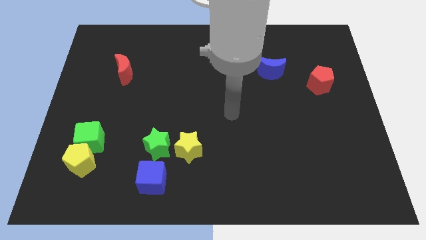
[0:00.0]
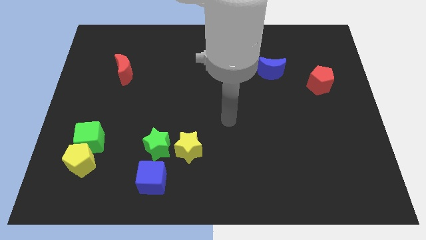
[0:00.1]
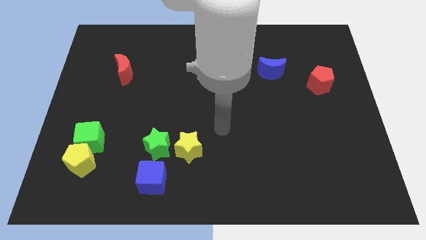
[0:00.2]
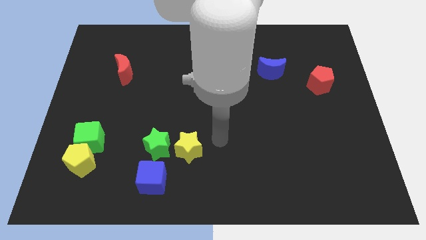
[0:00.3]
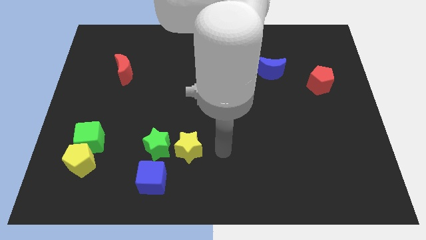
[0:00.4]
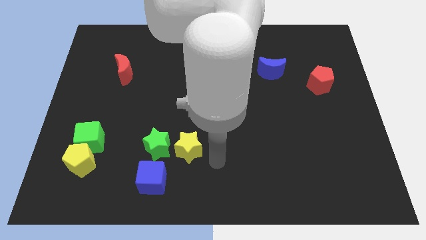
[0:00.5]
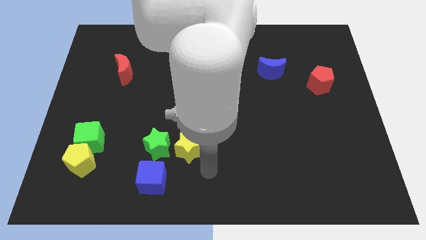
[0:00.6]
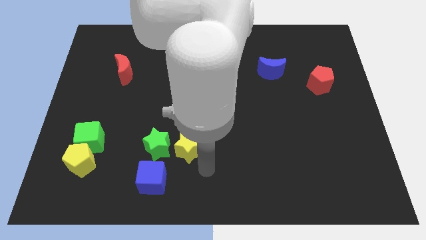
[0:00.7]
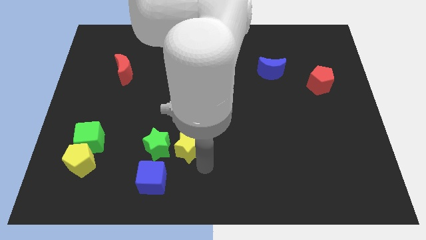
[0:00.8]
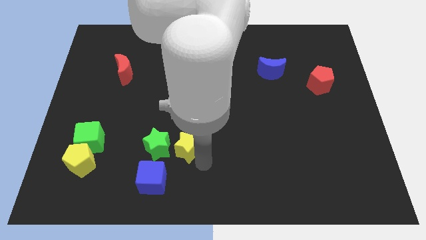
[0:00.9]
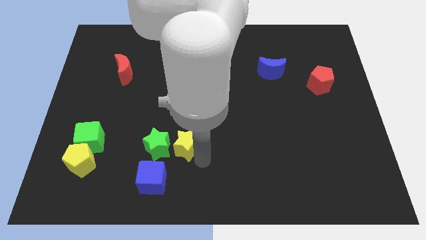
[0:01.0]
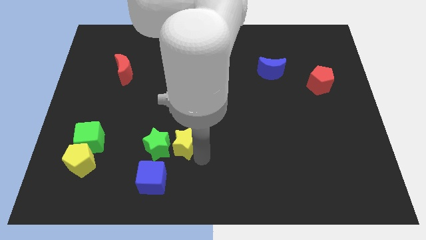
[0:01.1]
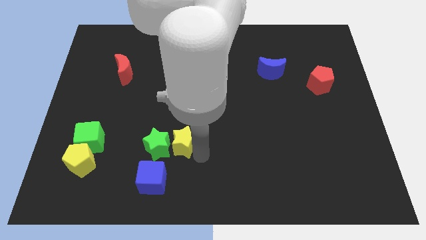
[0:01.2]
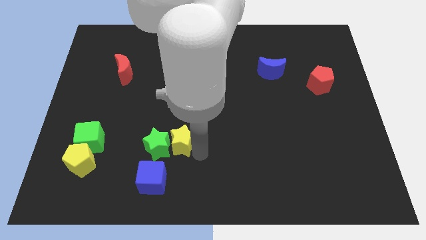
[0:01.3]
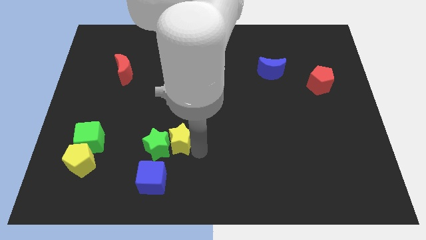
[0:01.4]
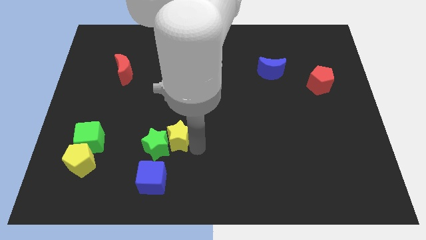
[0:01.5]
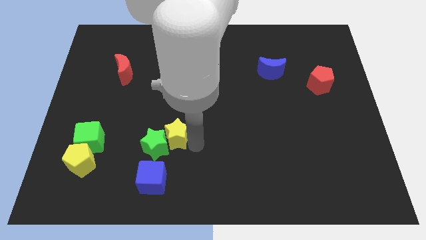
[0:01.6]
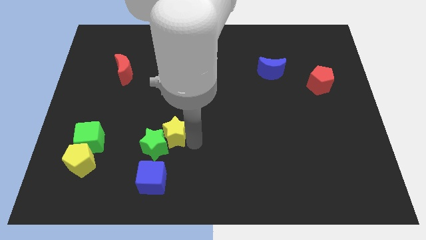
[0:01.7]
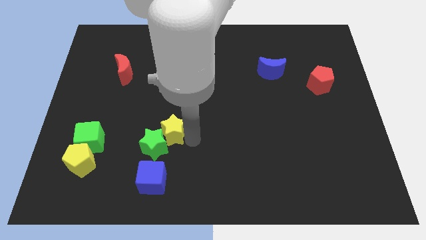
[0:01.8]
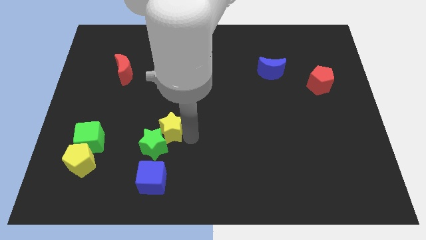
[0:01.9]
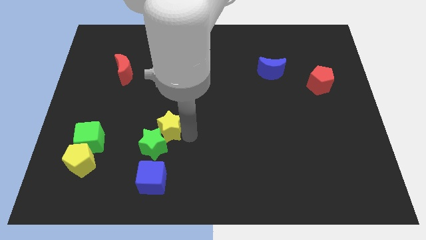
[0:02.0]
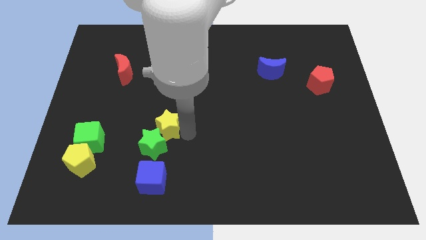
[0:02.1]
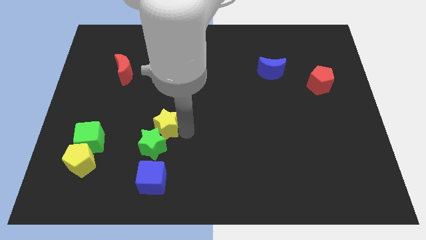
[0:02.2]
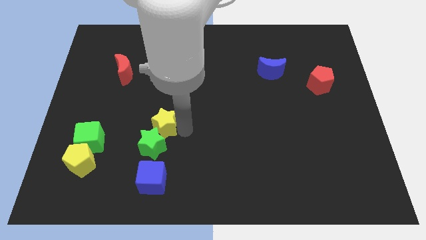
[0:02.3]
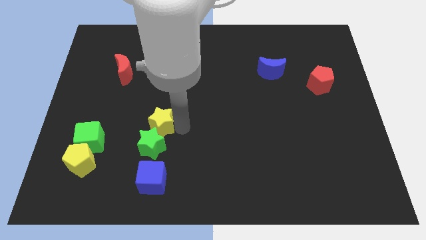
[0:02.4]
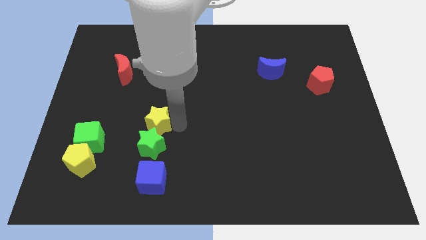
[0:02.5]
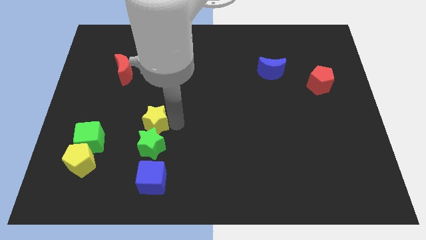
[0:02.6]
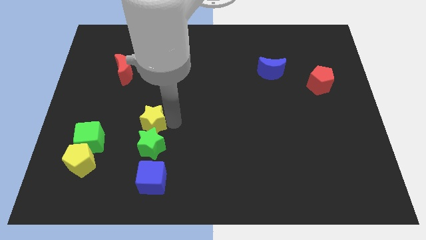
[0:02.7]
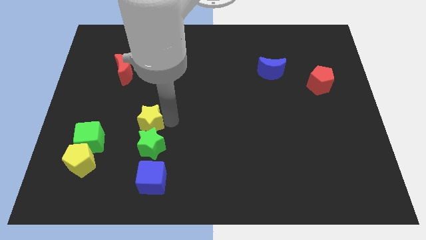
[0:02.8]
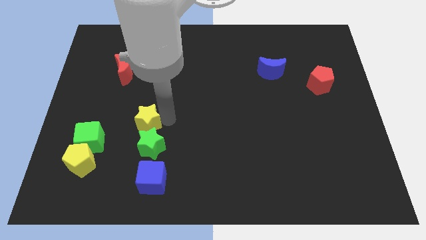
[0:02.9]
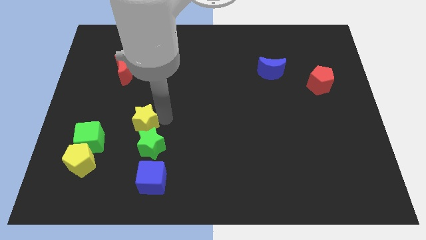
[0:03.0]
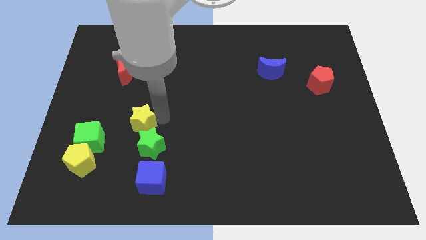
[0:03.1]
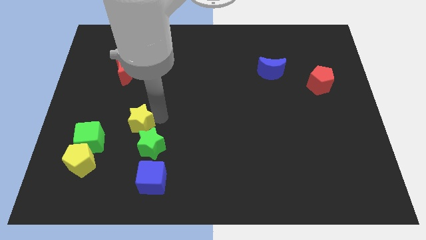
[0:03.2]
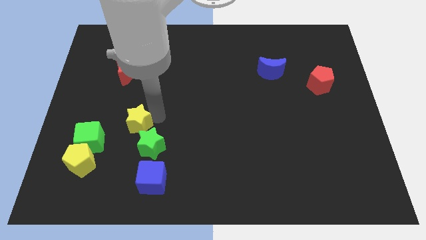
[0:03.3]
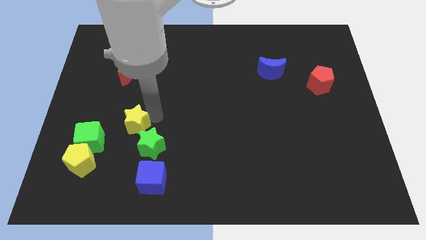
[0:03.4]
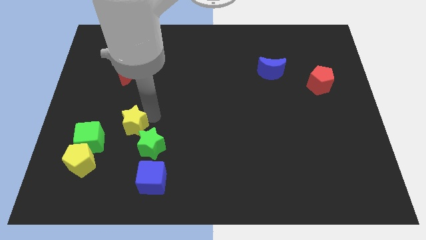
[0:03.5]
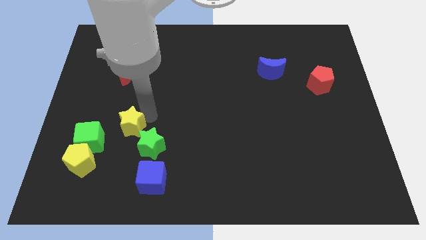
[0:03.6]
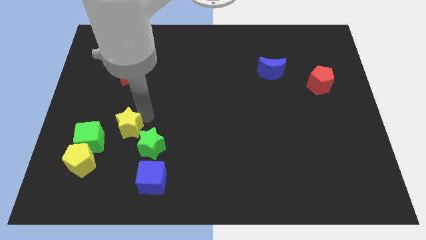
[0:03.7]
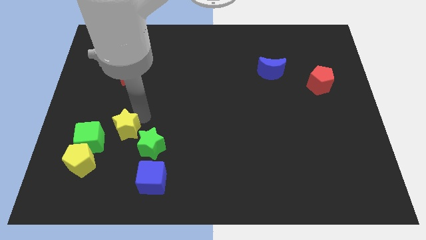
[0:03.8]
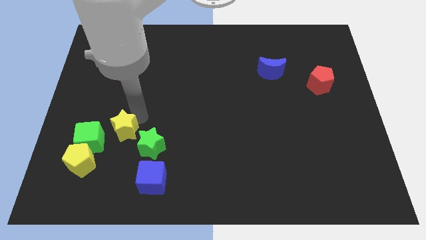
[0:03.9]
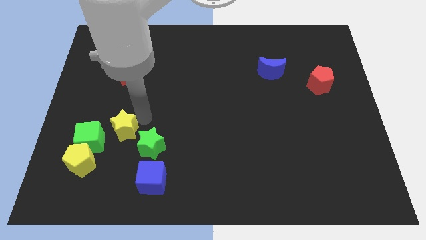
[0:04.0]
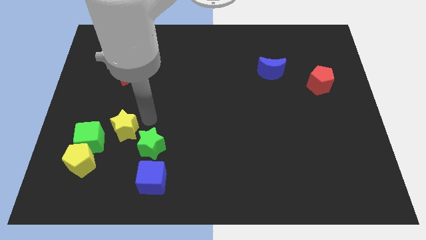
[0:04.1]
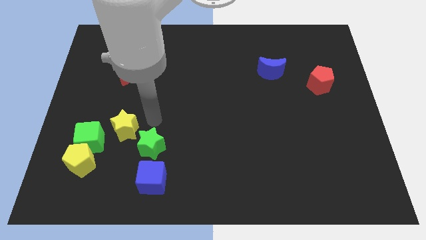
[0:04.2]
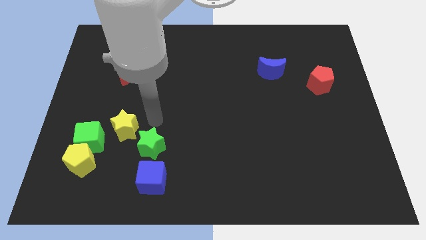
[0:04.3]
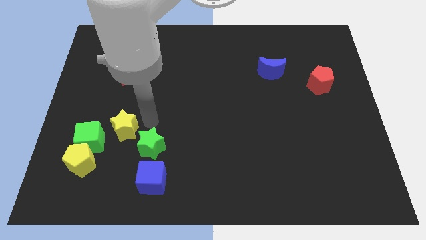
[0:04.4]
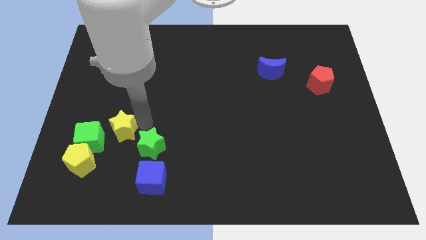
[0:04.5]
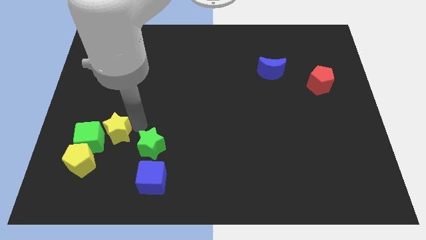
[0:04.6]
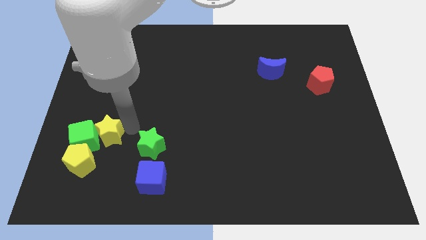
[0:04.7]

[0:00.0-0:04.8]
slide the yellow star to the green cube

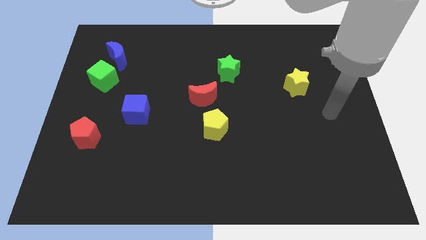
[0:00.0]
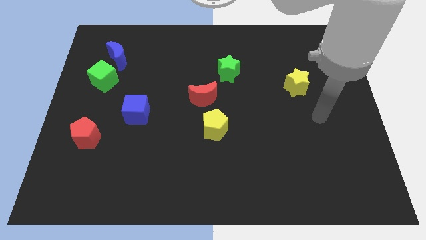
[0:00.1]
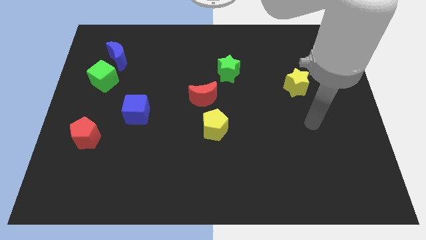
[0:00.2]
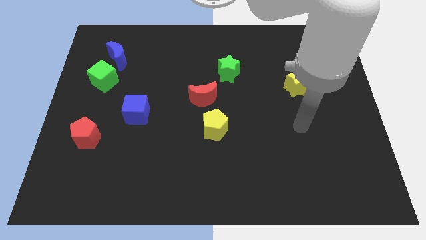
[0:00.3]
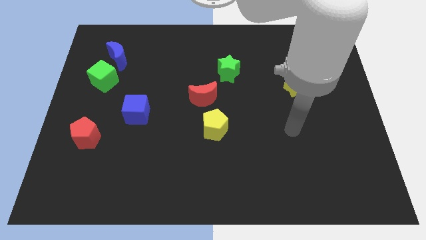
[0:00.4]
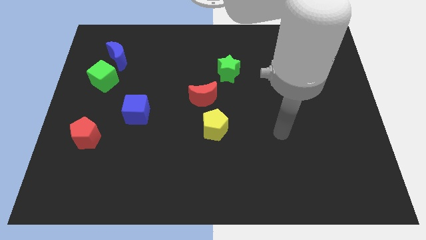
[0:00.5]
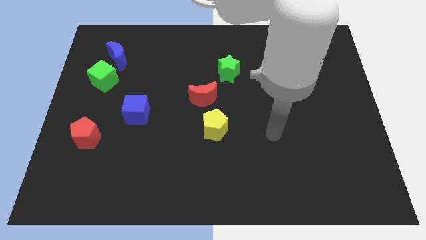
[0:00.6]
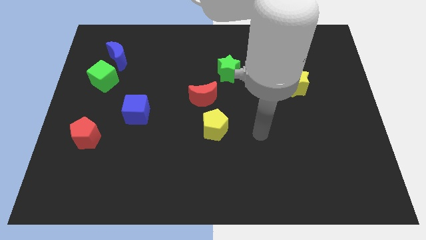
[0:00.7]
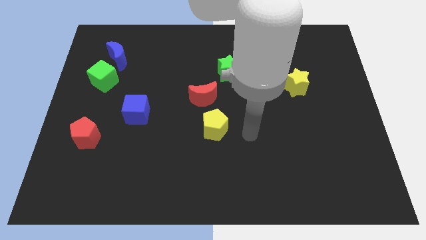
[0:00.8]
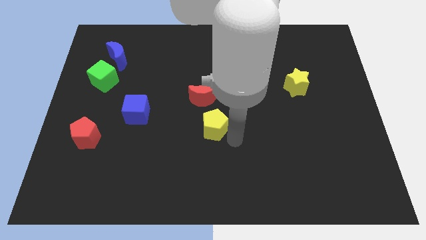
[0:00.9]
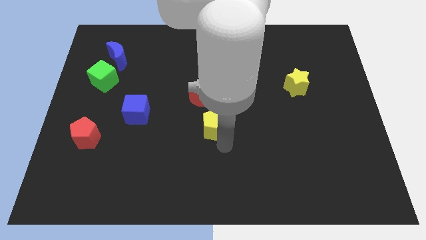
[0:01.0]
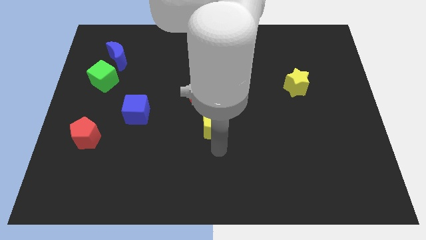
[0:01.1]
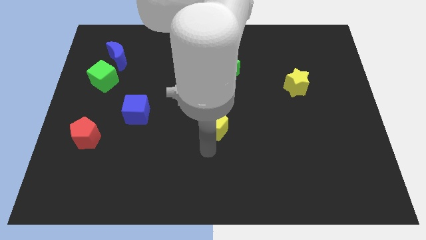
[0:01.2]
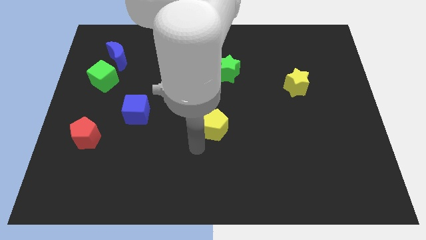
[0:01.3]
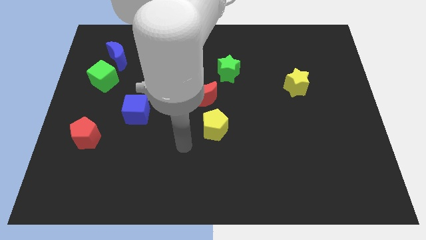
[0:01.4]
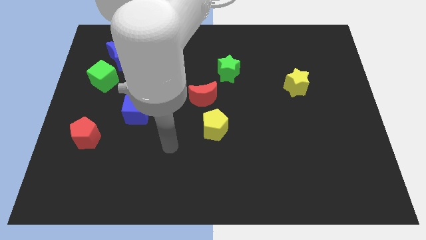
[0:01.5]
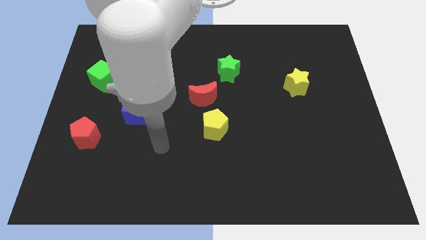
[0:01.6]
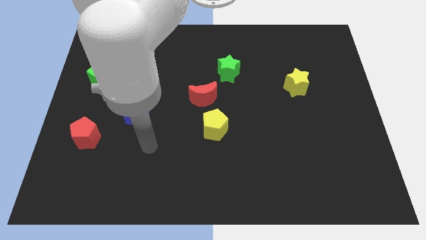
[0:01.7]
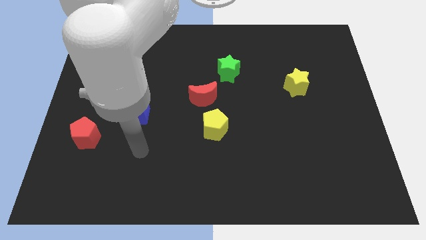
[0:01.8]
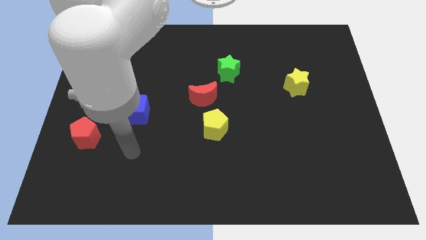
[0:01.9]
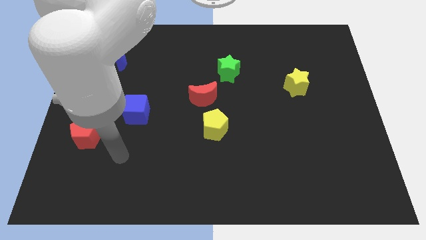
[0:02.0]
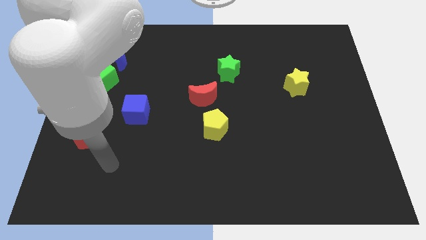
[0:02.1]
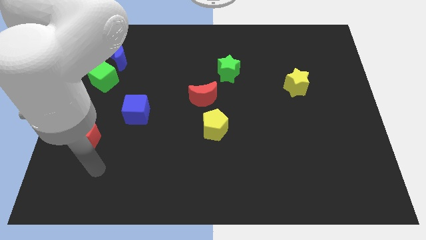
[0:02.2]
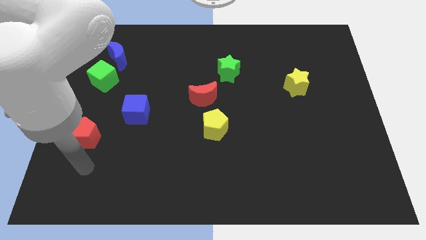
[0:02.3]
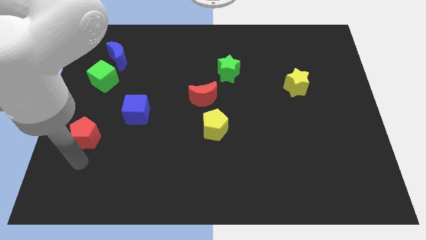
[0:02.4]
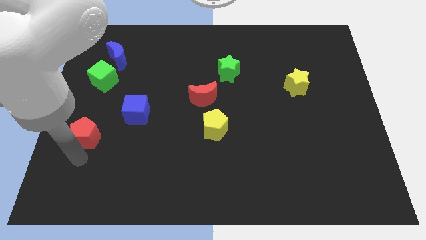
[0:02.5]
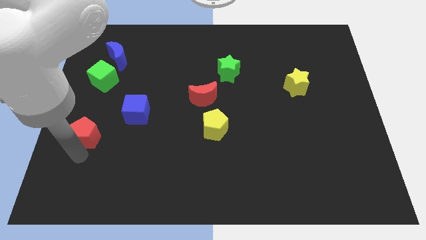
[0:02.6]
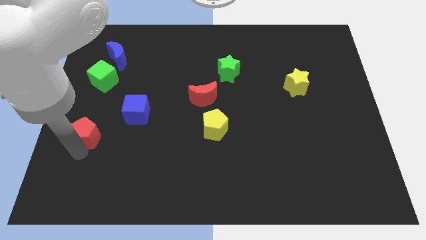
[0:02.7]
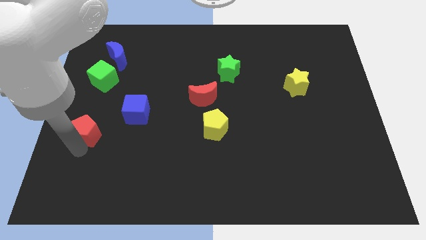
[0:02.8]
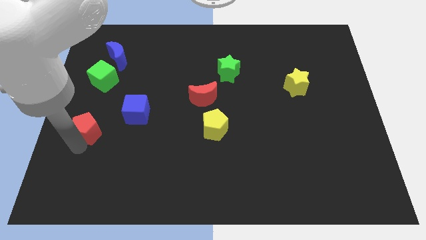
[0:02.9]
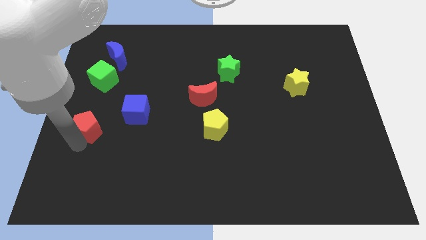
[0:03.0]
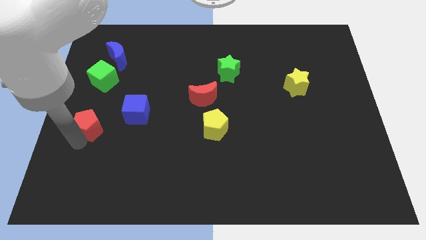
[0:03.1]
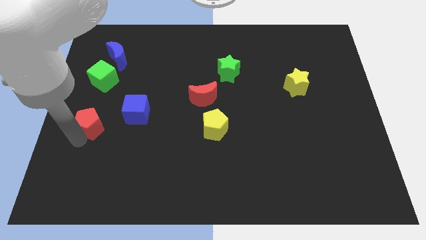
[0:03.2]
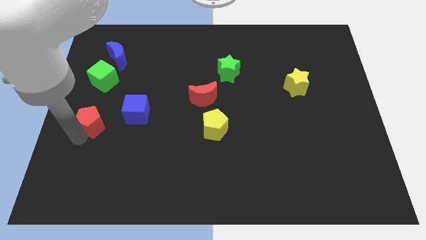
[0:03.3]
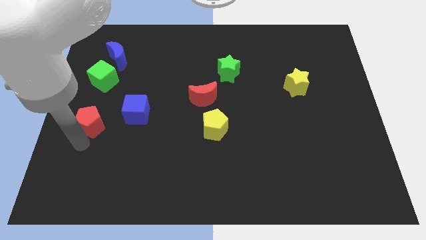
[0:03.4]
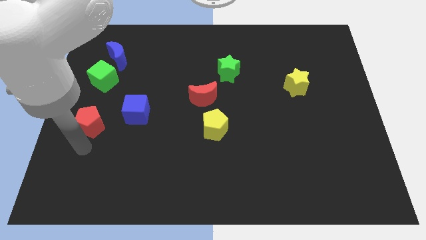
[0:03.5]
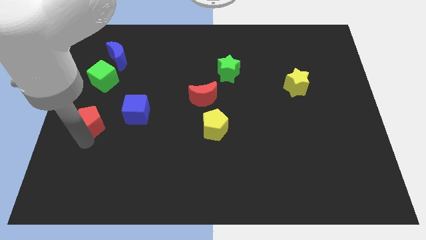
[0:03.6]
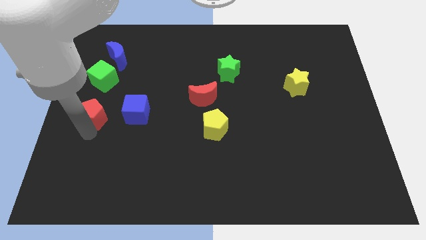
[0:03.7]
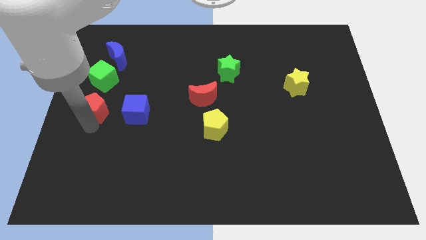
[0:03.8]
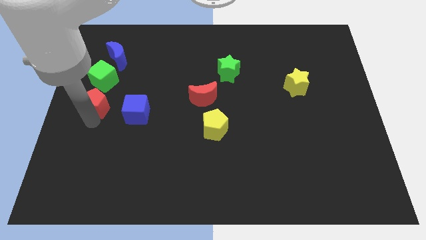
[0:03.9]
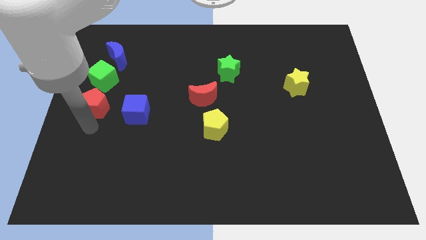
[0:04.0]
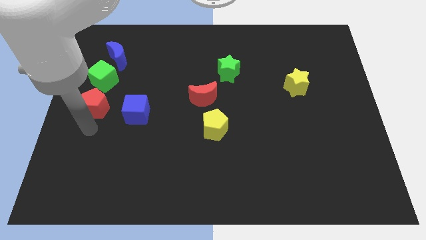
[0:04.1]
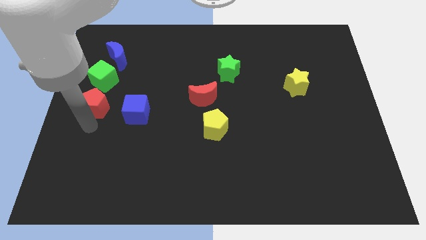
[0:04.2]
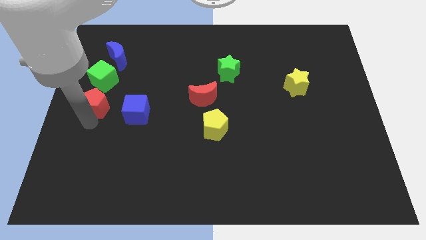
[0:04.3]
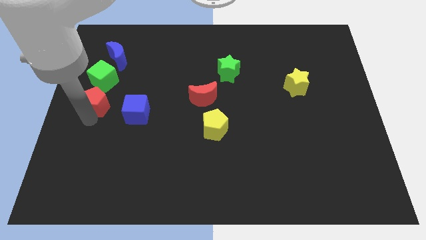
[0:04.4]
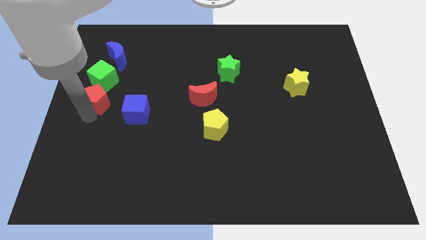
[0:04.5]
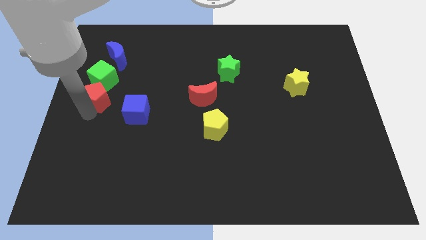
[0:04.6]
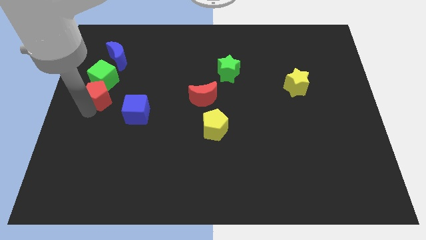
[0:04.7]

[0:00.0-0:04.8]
slide the red pentagon to the green cube
